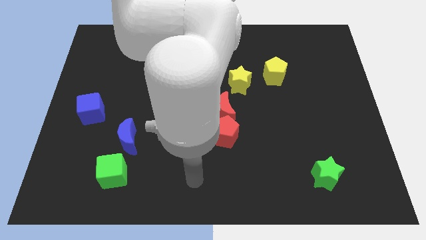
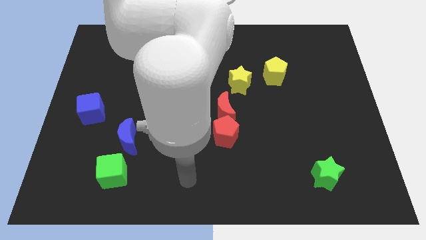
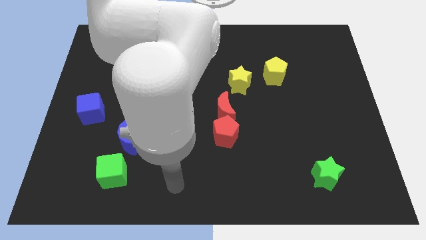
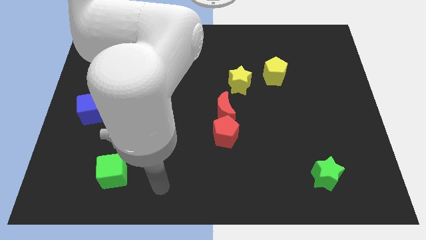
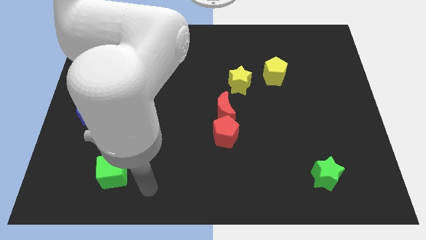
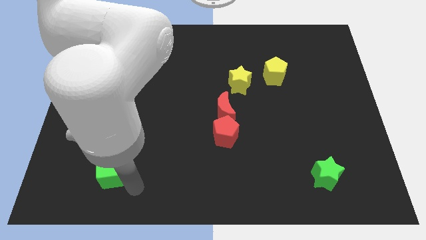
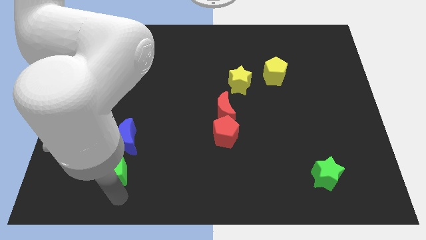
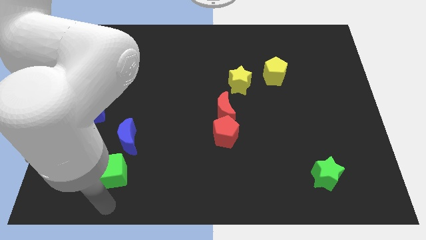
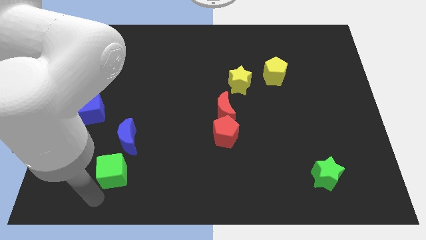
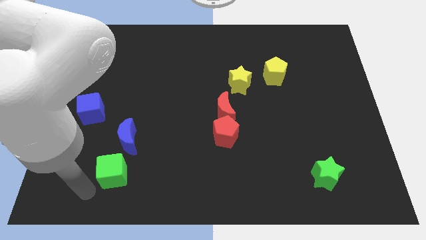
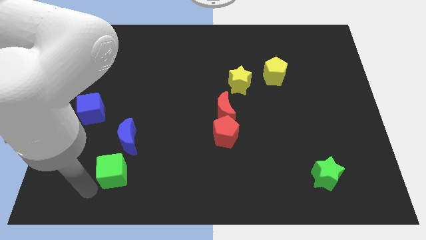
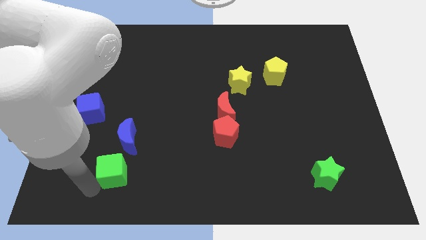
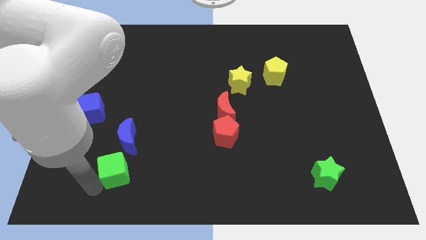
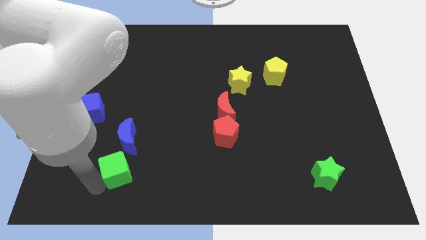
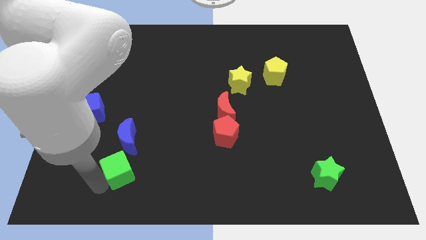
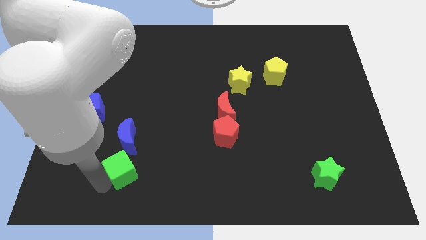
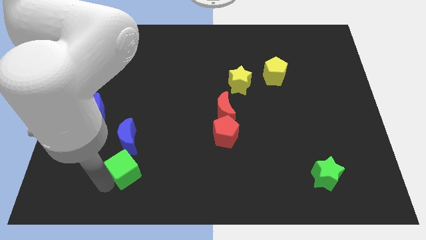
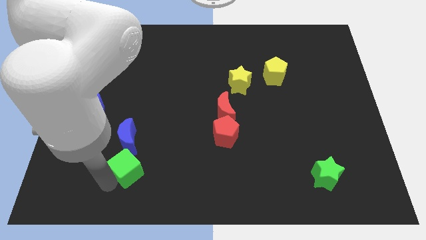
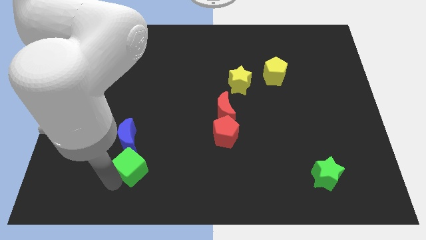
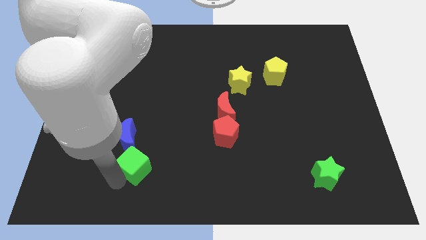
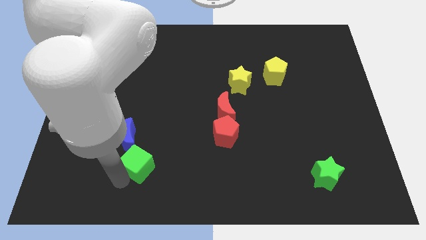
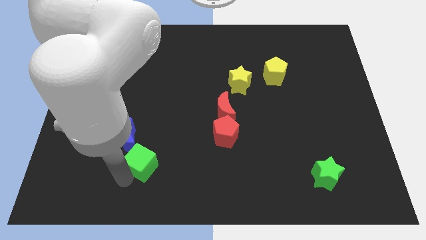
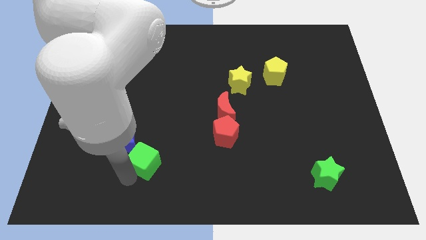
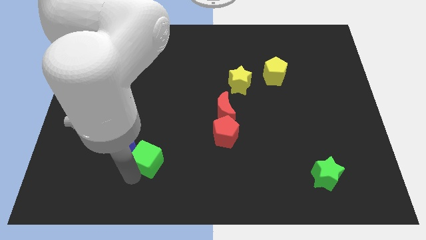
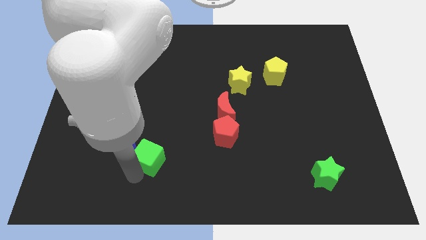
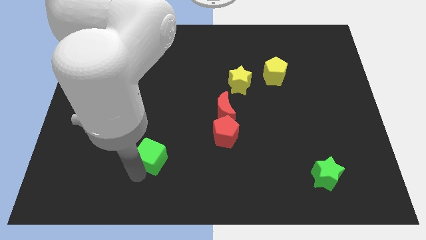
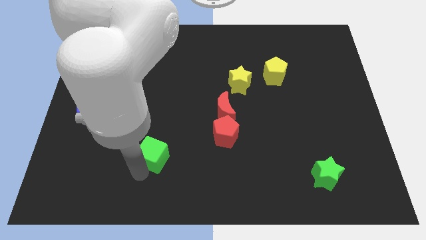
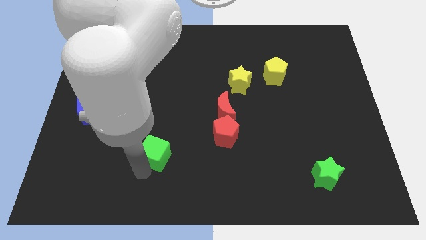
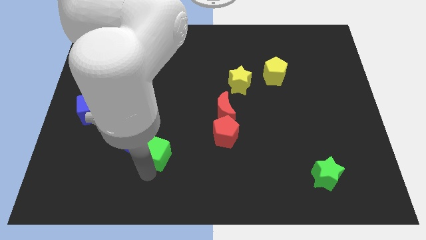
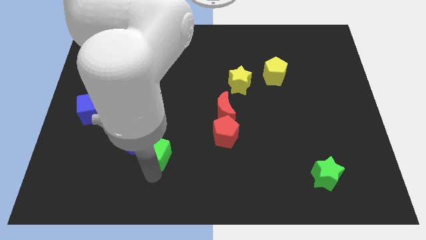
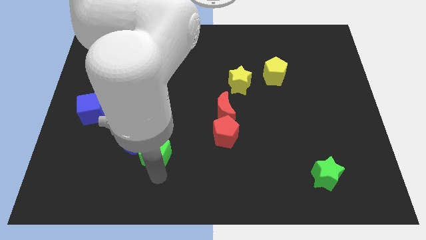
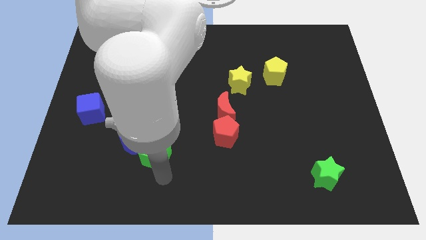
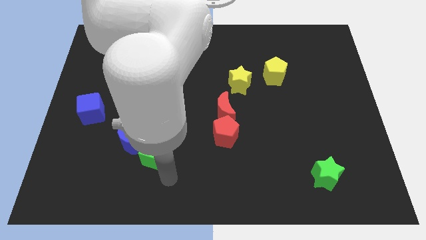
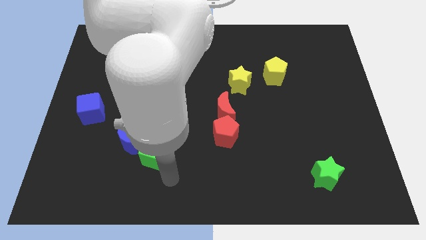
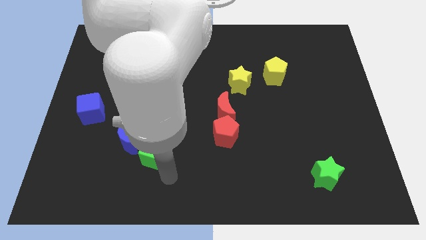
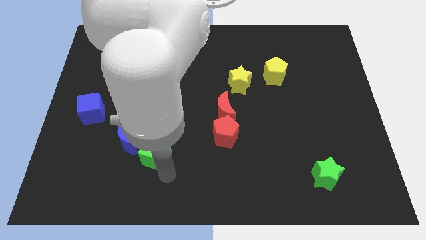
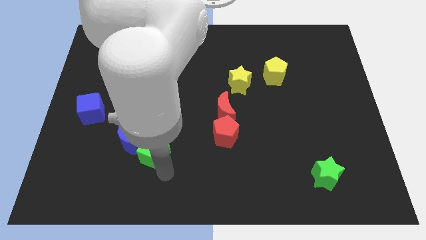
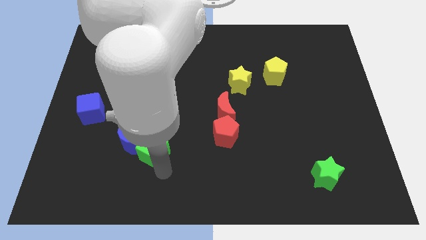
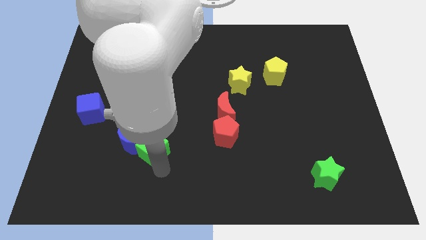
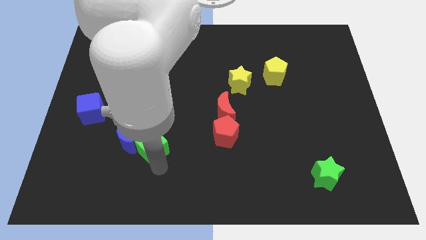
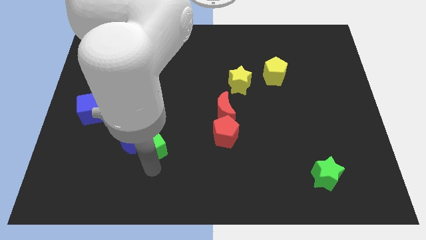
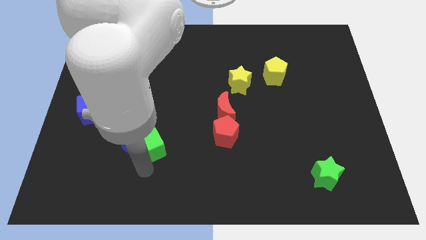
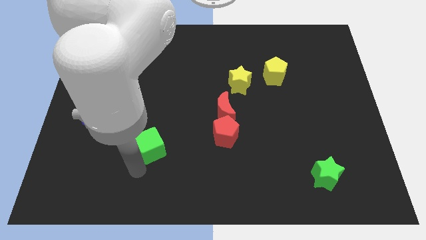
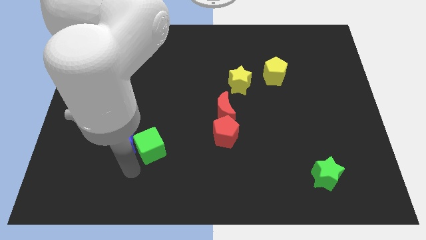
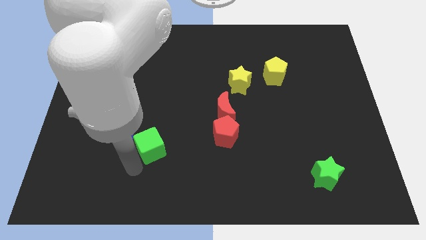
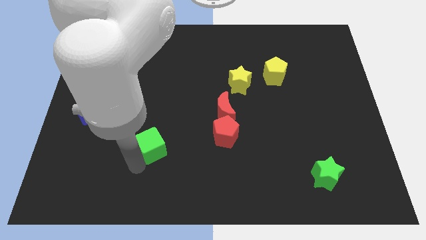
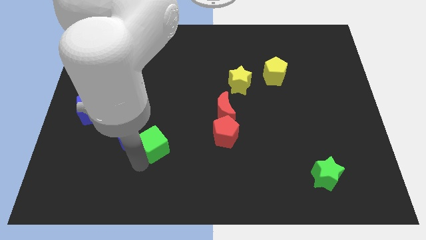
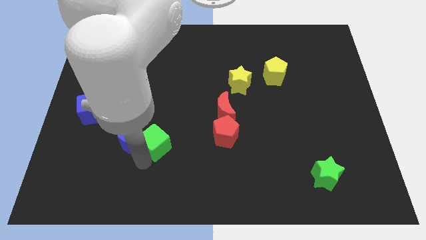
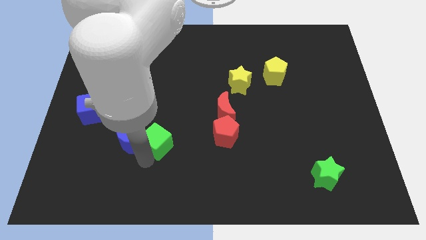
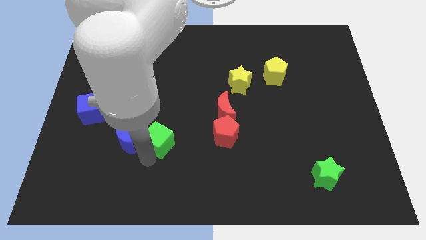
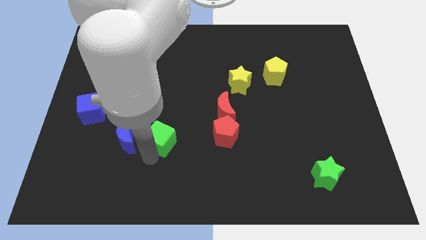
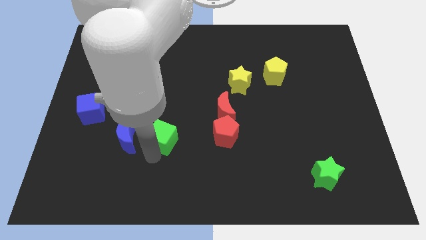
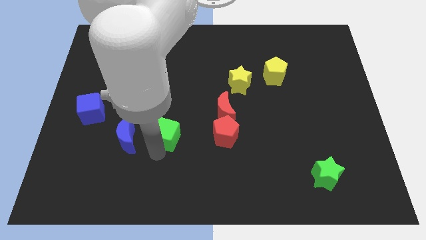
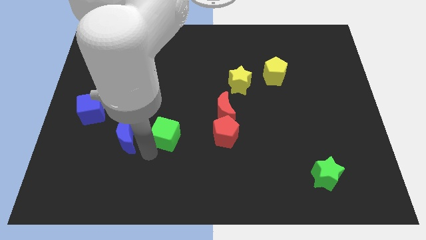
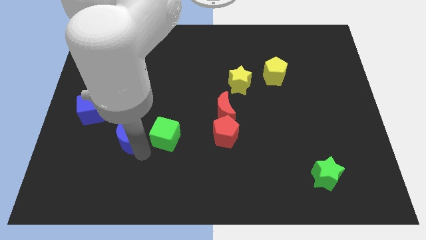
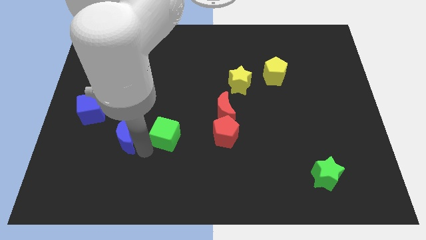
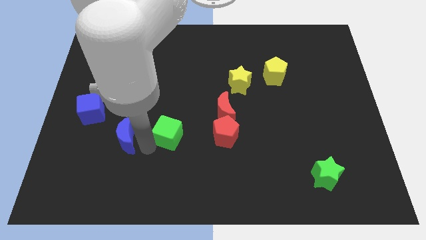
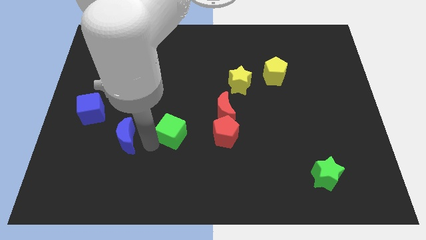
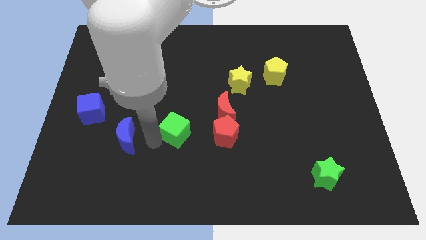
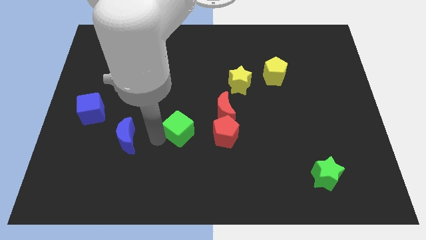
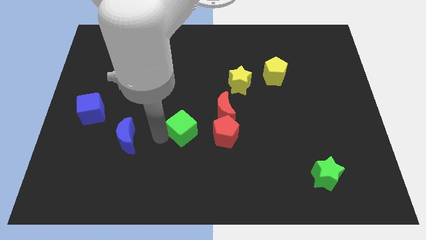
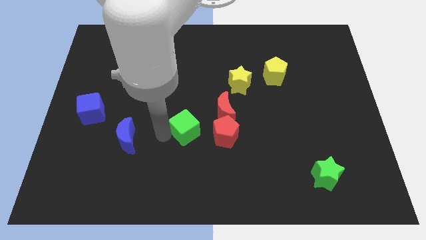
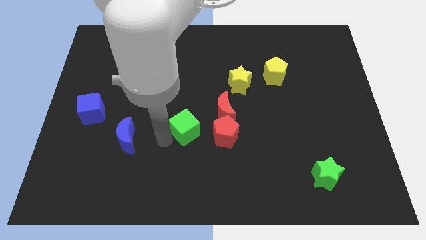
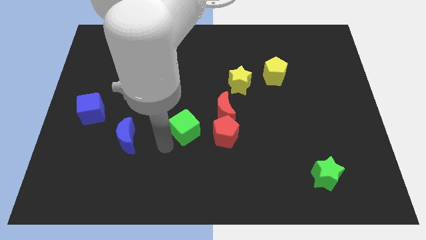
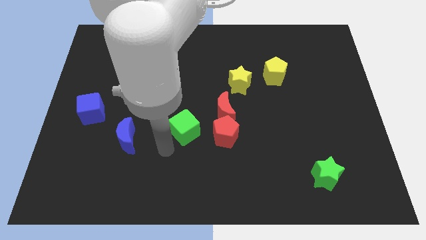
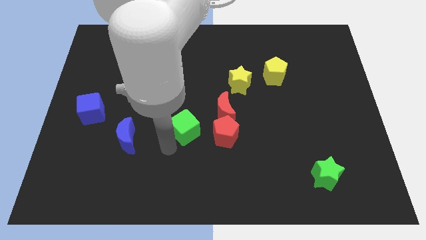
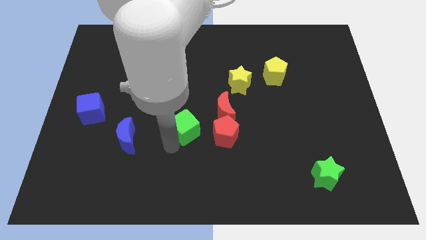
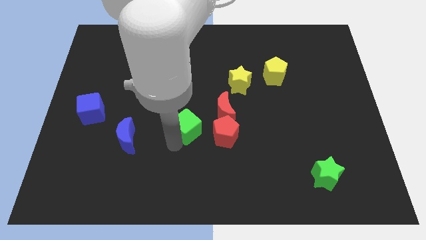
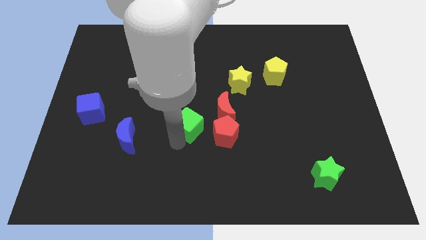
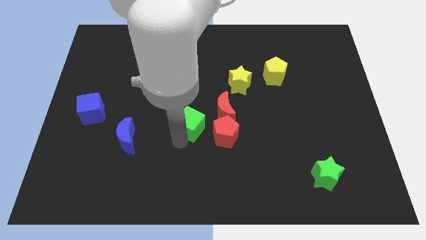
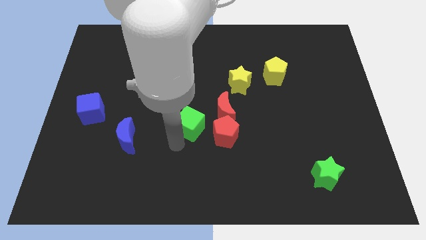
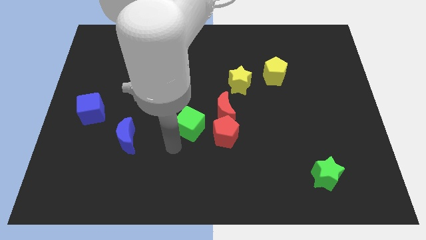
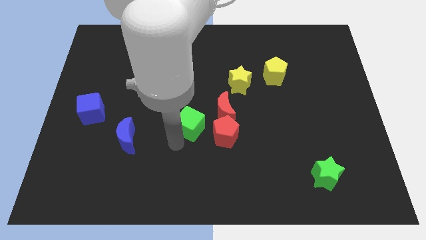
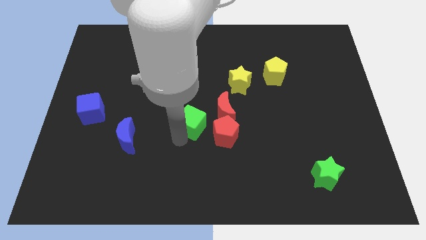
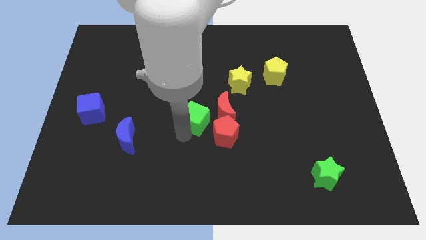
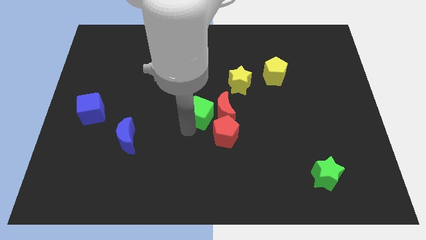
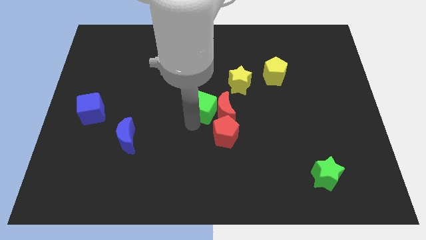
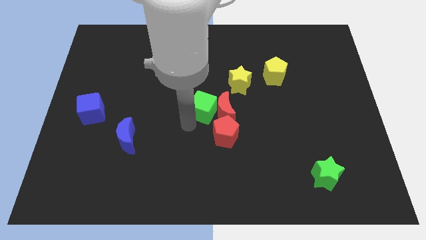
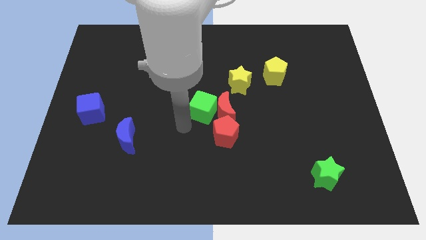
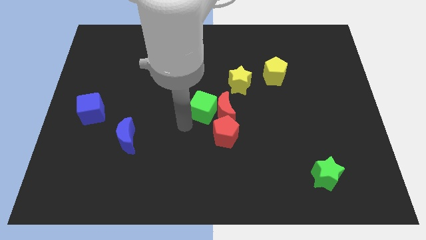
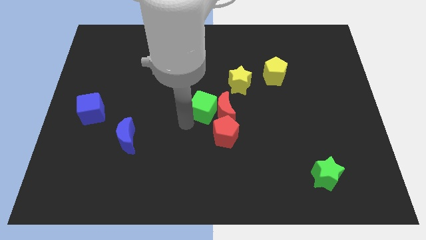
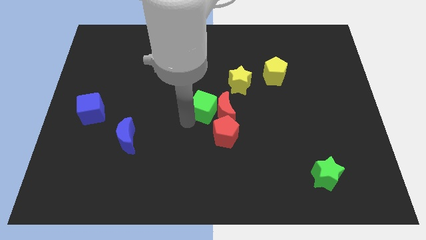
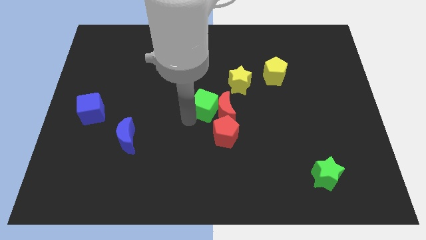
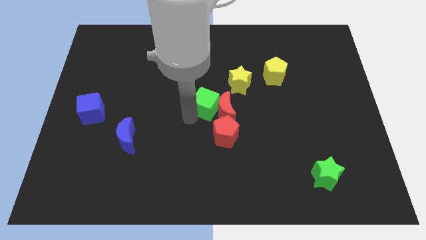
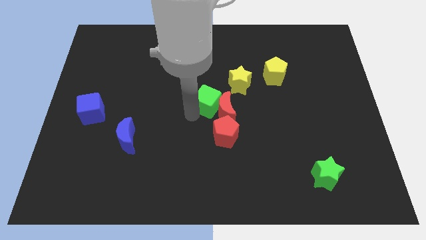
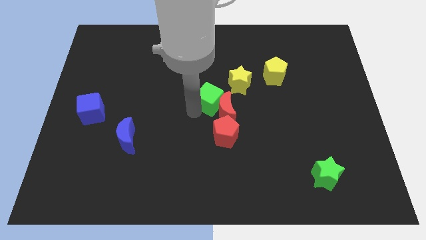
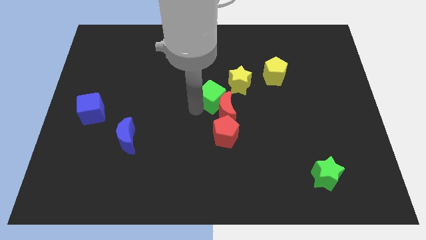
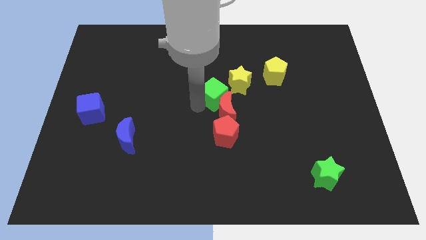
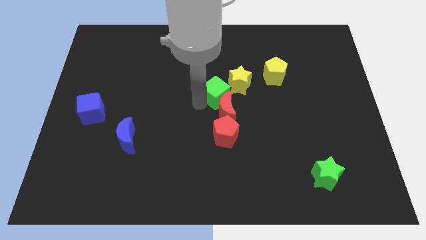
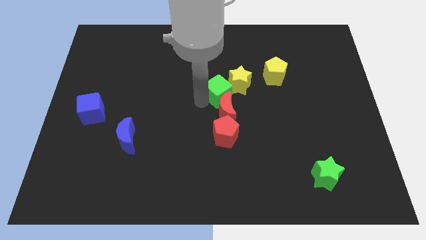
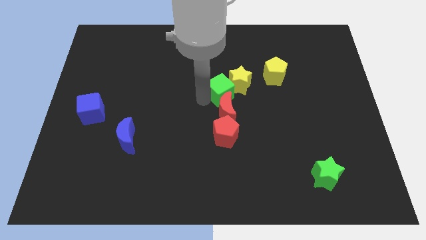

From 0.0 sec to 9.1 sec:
put the green cube to the top right of the red moon
